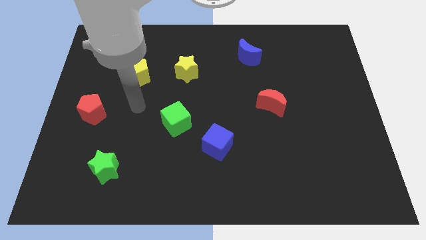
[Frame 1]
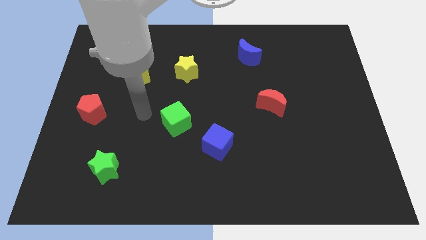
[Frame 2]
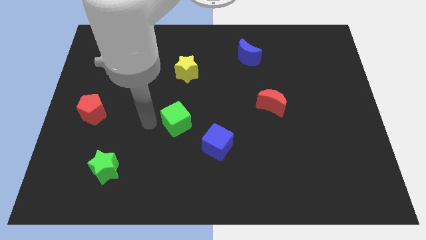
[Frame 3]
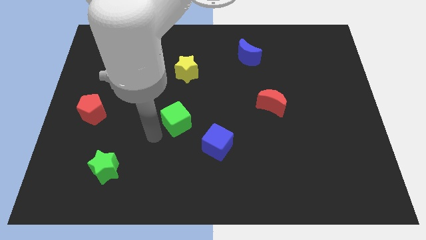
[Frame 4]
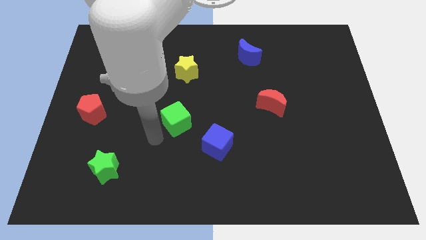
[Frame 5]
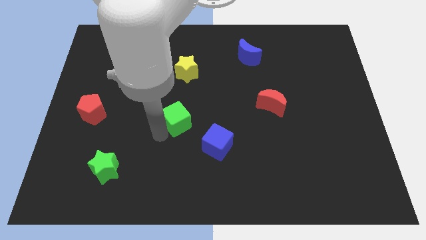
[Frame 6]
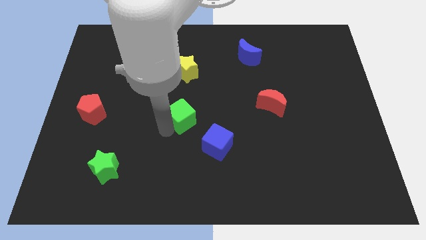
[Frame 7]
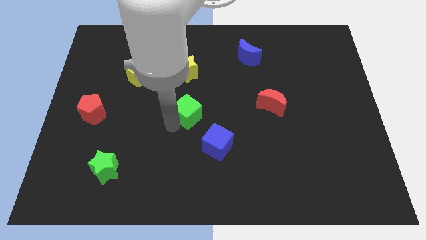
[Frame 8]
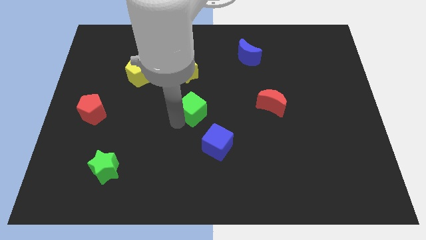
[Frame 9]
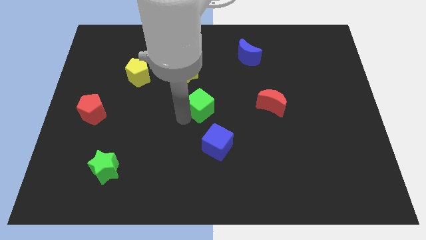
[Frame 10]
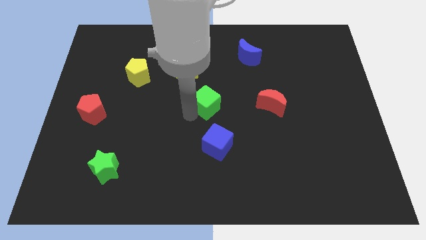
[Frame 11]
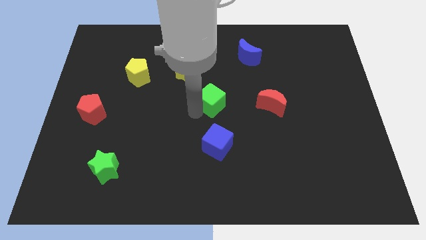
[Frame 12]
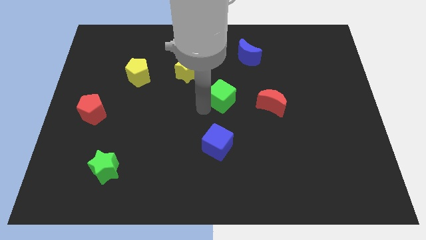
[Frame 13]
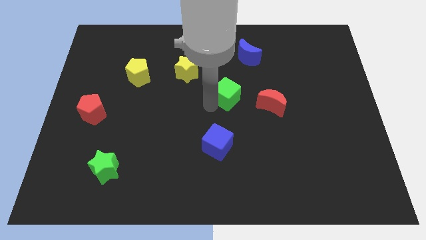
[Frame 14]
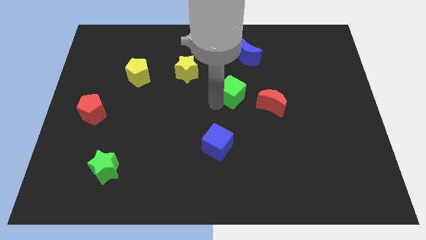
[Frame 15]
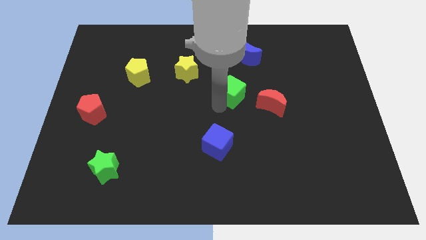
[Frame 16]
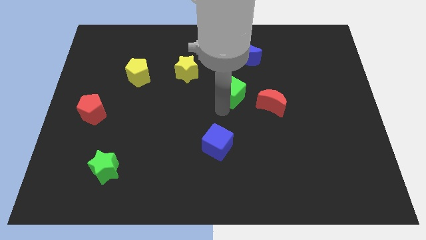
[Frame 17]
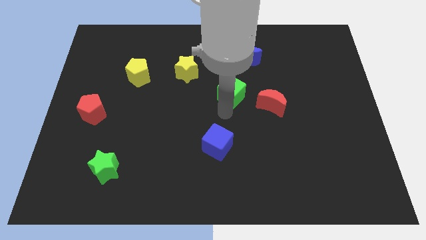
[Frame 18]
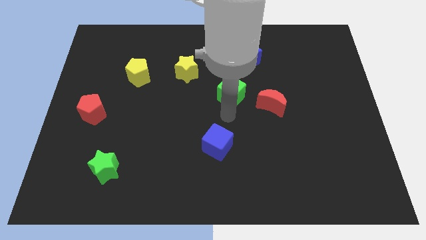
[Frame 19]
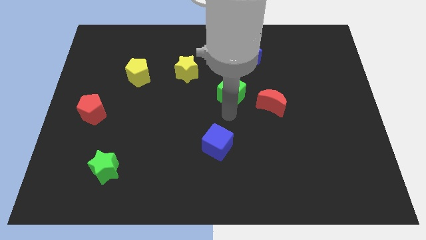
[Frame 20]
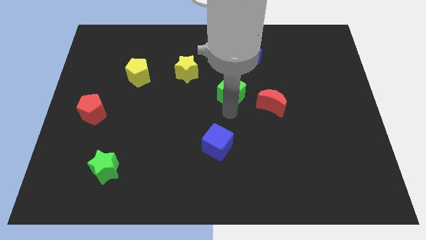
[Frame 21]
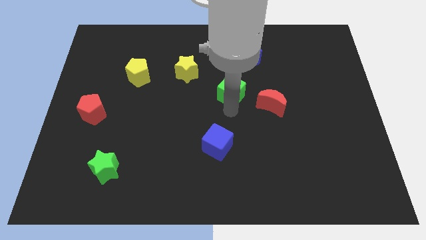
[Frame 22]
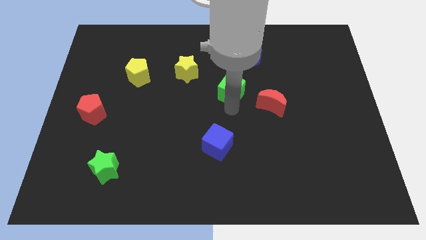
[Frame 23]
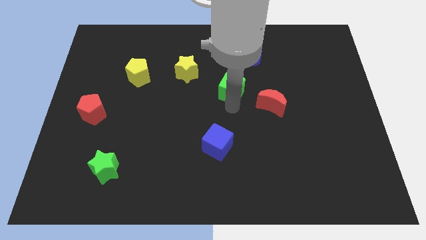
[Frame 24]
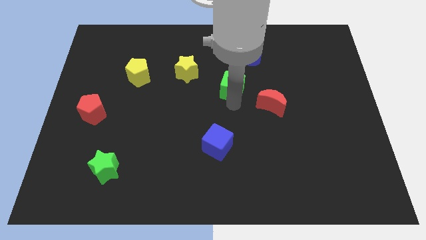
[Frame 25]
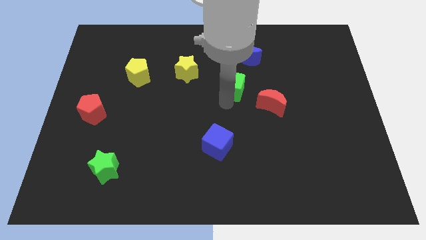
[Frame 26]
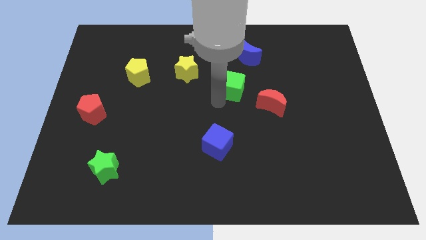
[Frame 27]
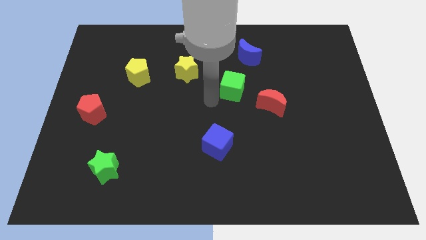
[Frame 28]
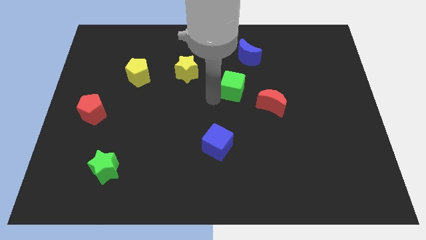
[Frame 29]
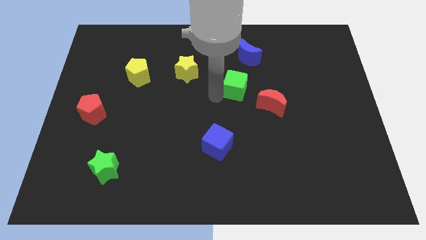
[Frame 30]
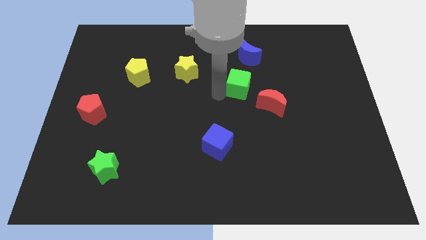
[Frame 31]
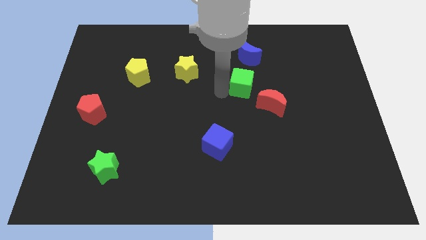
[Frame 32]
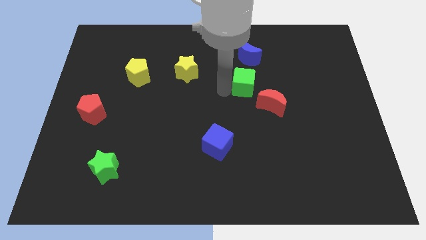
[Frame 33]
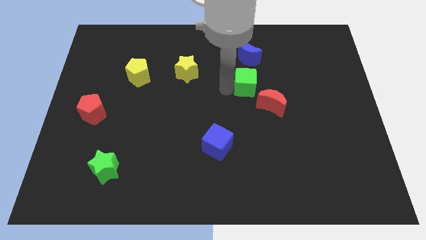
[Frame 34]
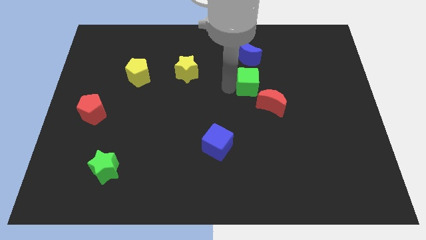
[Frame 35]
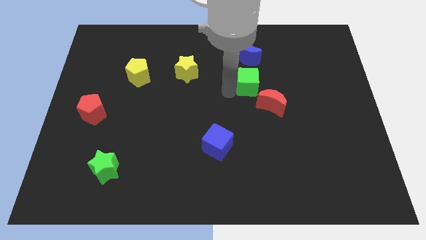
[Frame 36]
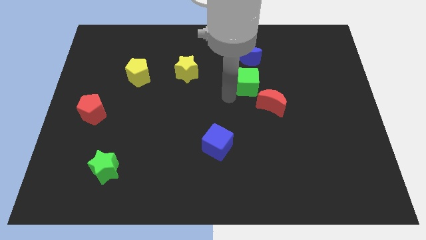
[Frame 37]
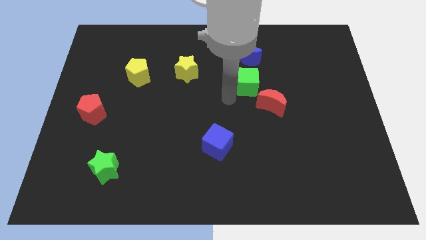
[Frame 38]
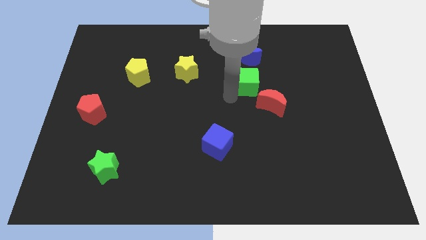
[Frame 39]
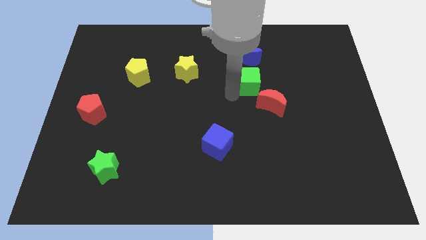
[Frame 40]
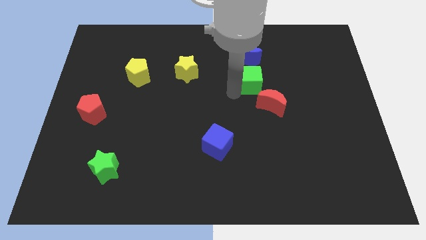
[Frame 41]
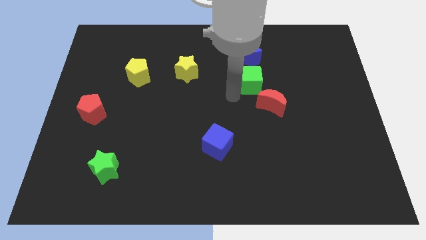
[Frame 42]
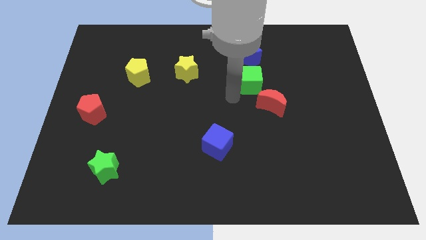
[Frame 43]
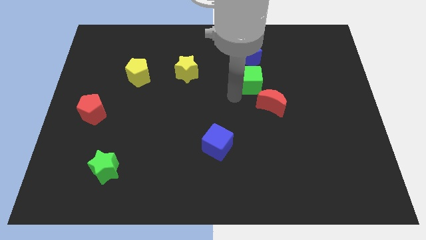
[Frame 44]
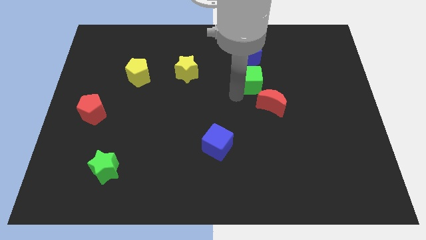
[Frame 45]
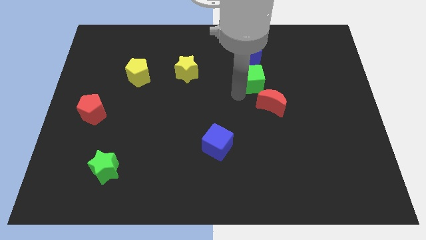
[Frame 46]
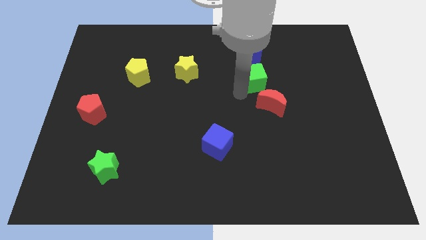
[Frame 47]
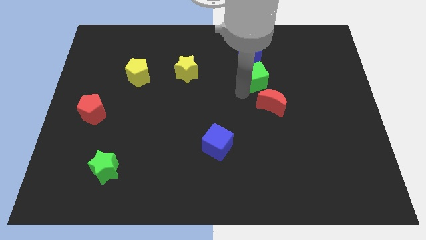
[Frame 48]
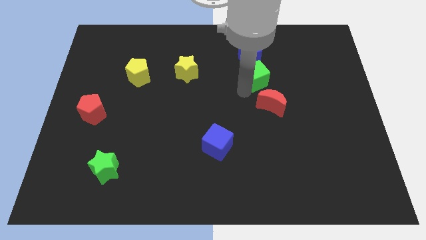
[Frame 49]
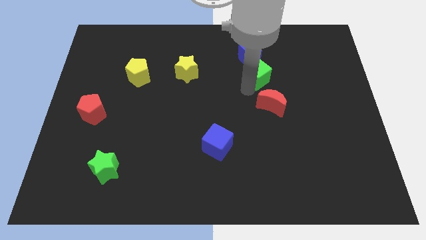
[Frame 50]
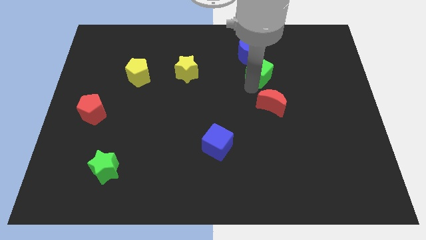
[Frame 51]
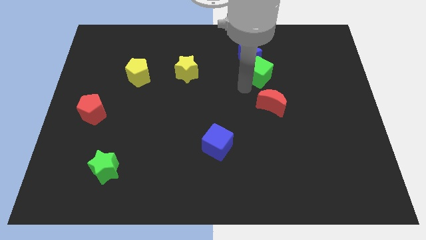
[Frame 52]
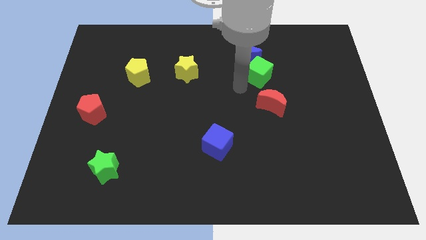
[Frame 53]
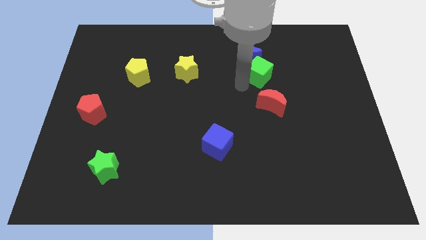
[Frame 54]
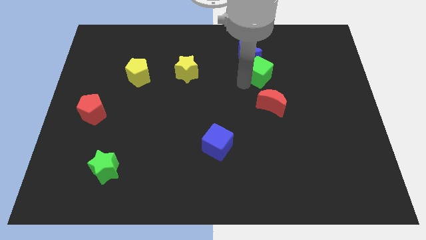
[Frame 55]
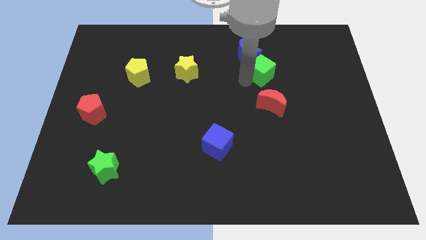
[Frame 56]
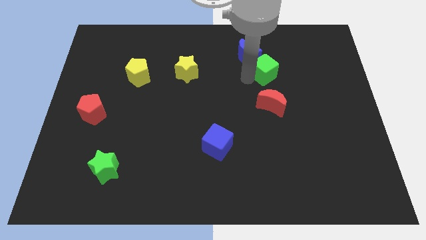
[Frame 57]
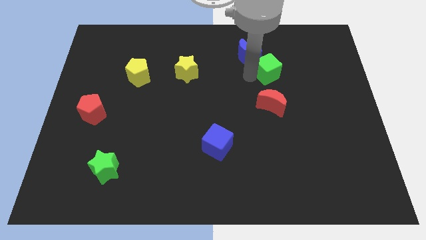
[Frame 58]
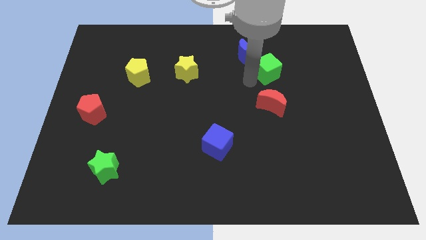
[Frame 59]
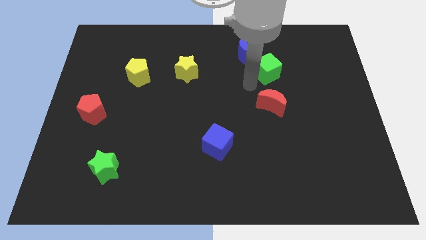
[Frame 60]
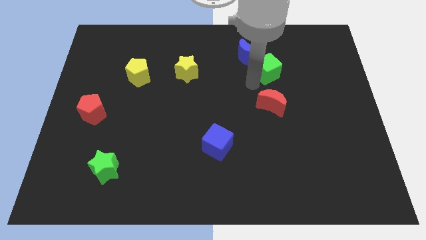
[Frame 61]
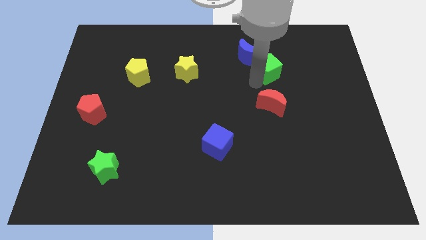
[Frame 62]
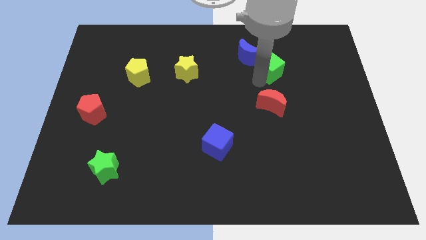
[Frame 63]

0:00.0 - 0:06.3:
put the green cube right of the blue moon

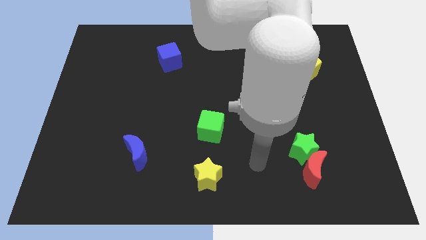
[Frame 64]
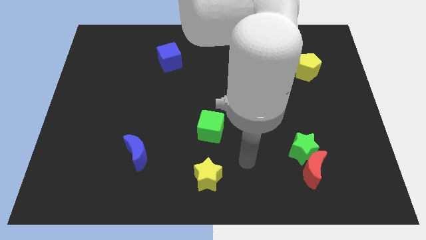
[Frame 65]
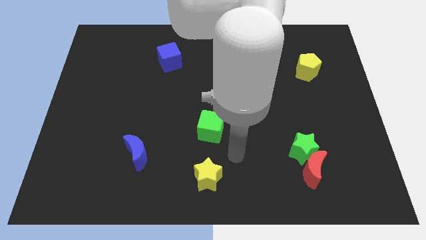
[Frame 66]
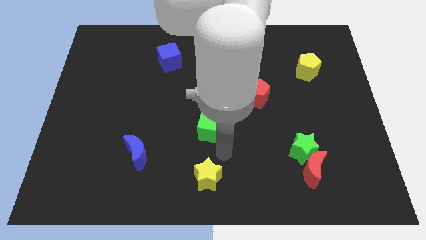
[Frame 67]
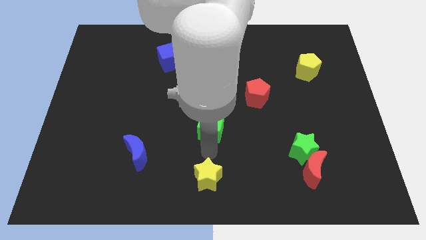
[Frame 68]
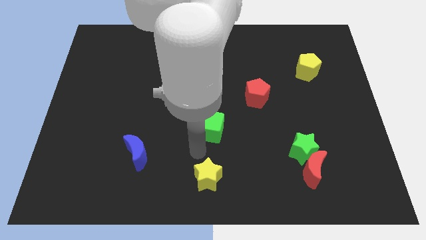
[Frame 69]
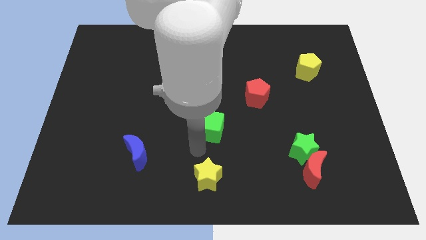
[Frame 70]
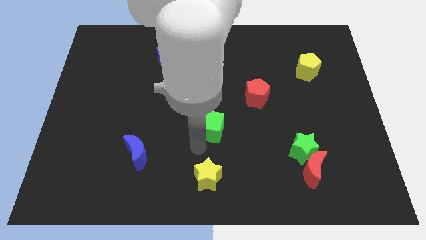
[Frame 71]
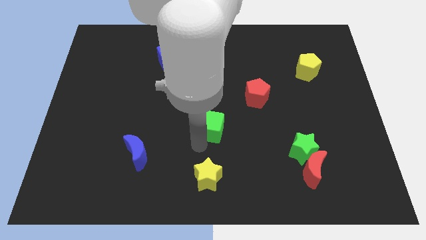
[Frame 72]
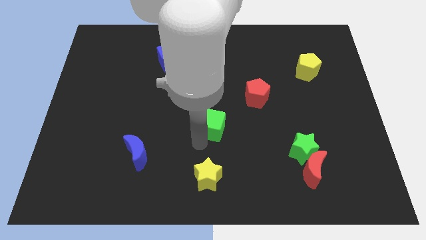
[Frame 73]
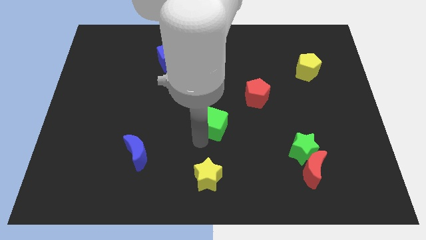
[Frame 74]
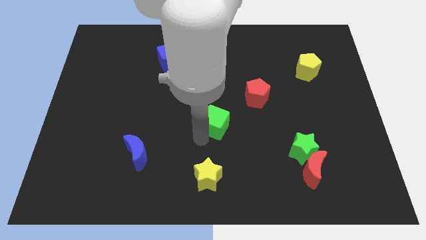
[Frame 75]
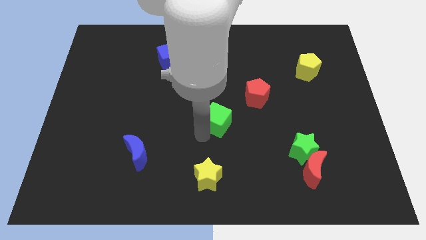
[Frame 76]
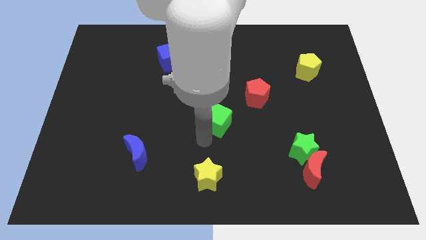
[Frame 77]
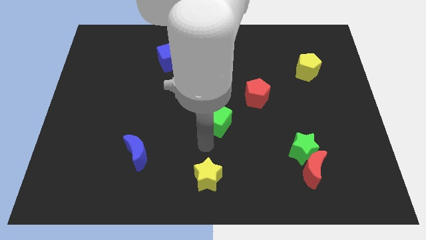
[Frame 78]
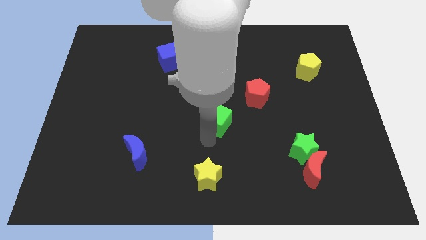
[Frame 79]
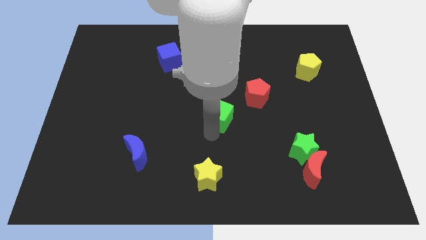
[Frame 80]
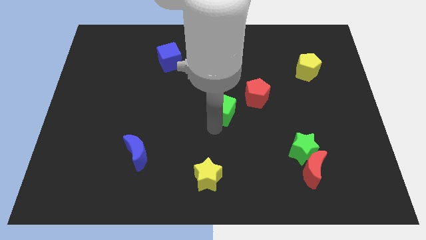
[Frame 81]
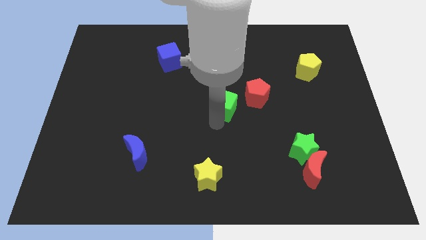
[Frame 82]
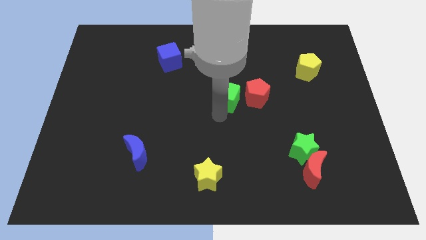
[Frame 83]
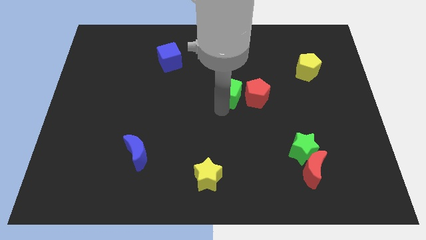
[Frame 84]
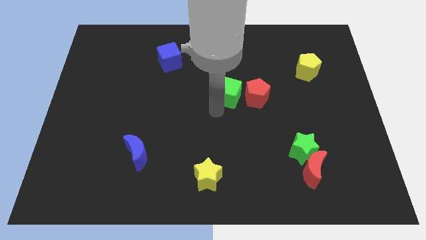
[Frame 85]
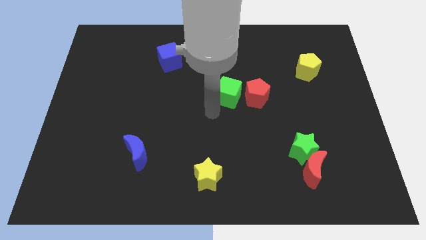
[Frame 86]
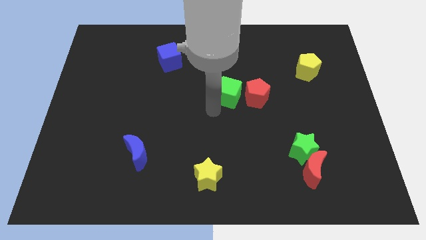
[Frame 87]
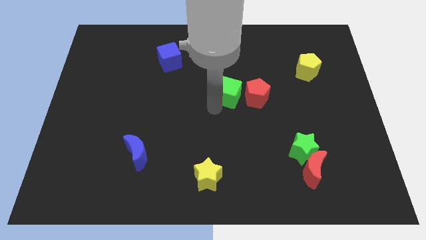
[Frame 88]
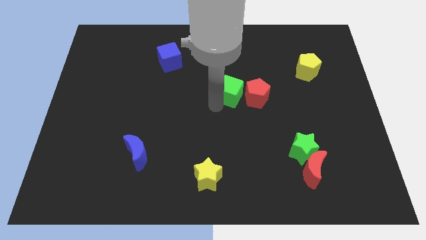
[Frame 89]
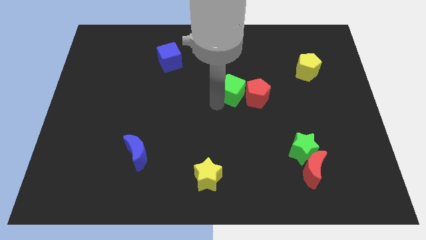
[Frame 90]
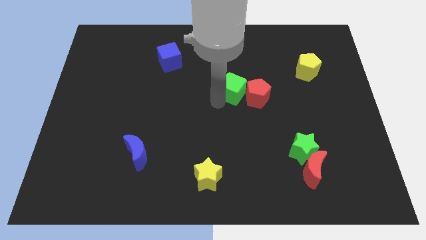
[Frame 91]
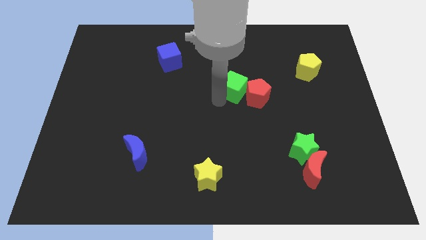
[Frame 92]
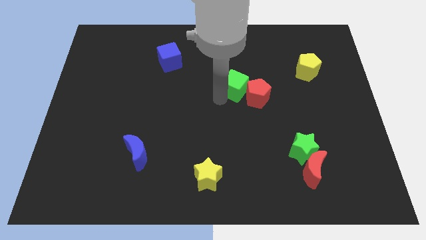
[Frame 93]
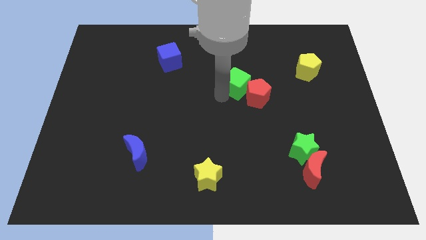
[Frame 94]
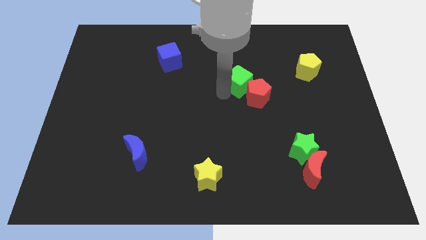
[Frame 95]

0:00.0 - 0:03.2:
push the green cube above the red pentagon
